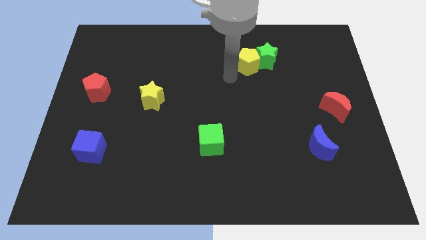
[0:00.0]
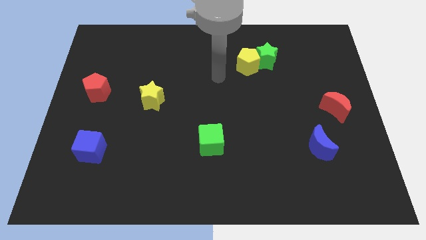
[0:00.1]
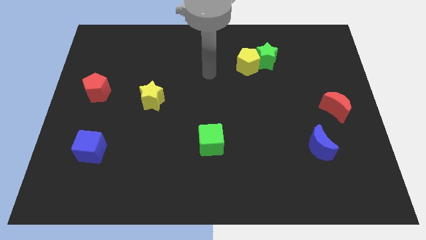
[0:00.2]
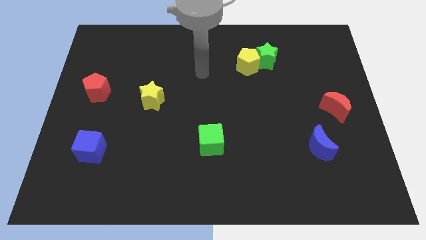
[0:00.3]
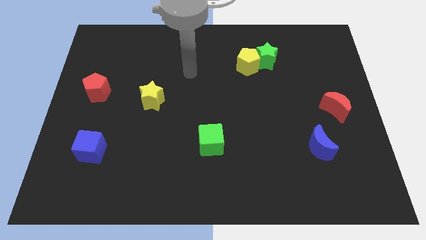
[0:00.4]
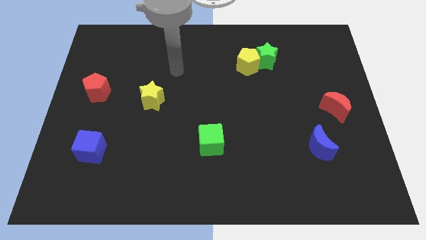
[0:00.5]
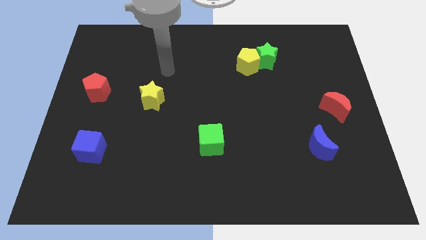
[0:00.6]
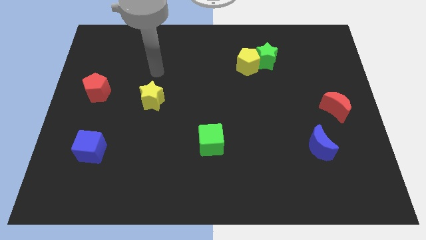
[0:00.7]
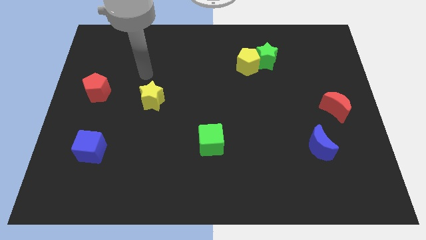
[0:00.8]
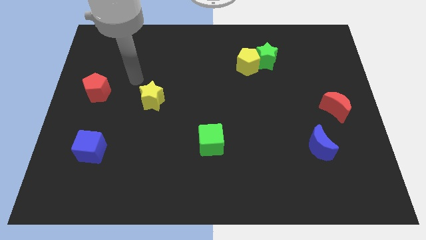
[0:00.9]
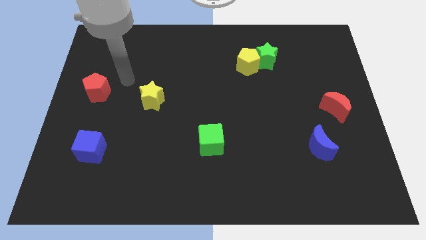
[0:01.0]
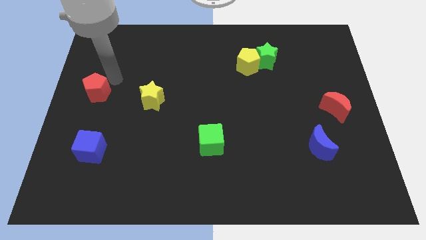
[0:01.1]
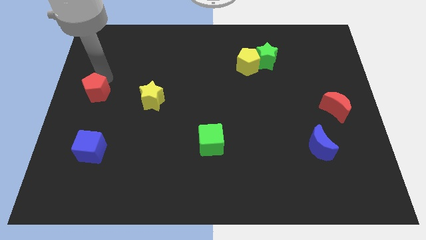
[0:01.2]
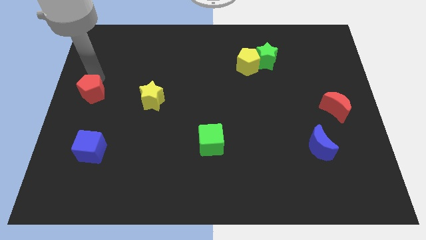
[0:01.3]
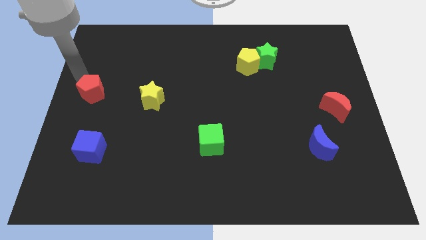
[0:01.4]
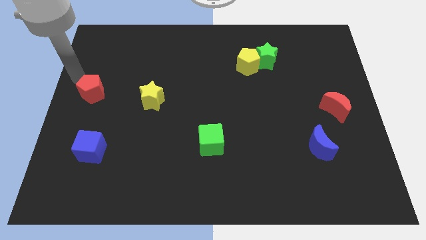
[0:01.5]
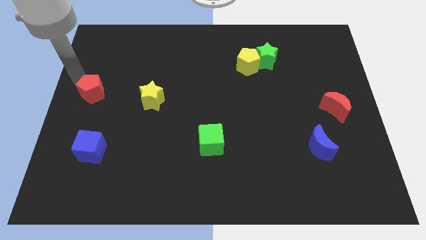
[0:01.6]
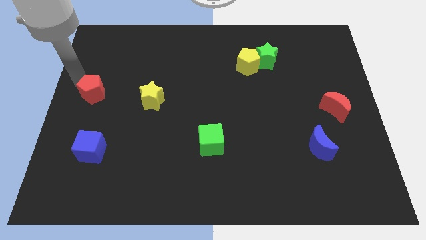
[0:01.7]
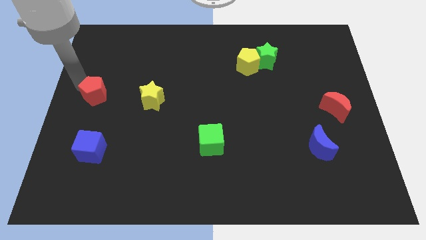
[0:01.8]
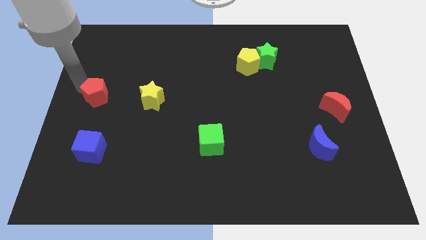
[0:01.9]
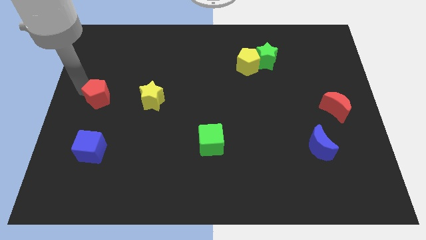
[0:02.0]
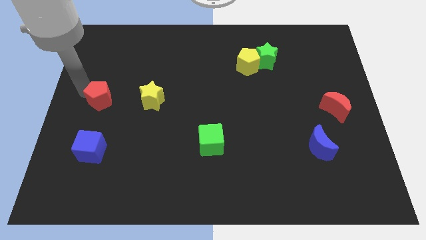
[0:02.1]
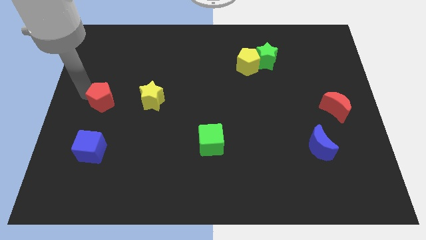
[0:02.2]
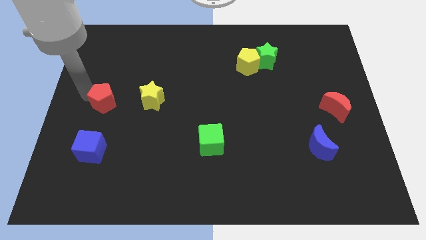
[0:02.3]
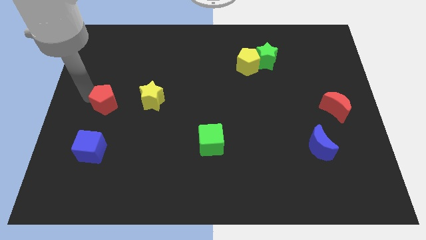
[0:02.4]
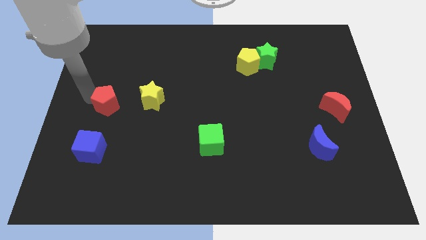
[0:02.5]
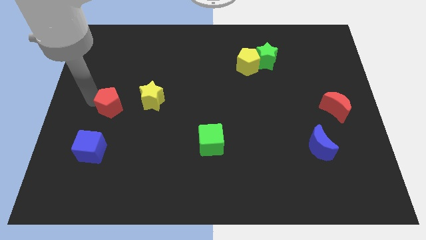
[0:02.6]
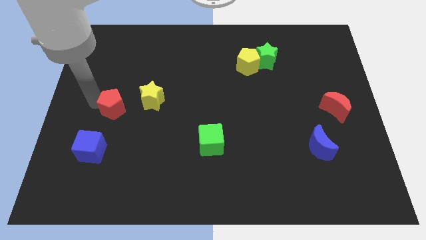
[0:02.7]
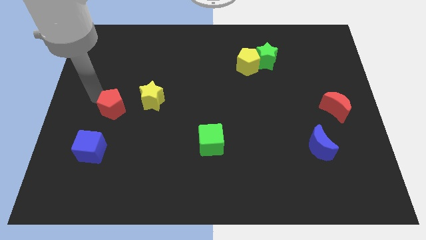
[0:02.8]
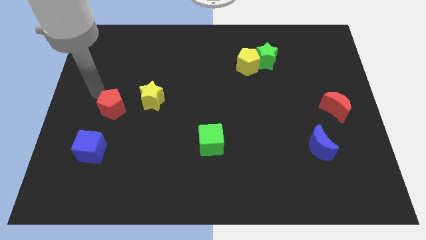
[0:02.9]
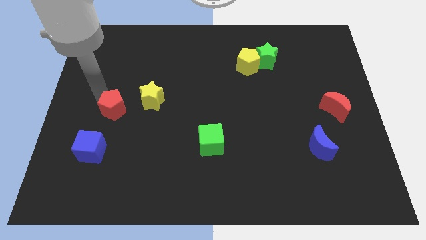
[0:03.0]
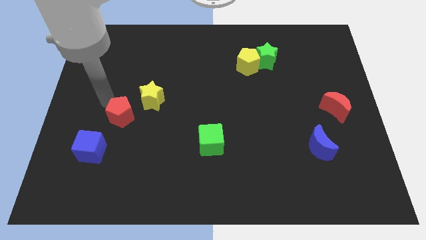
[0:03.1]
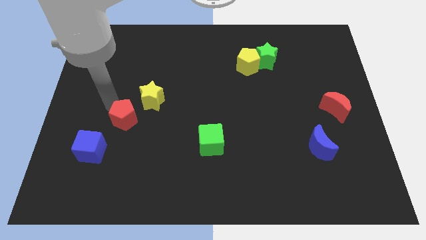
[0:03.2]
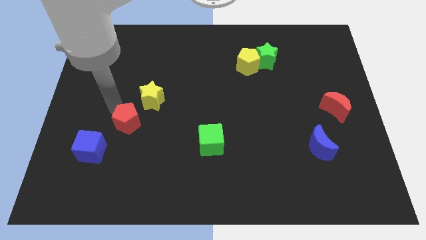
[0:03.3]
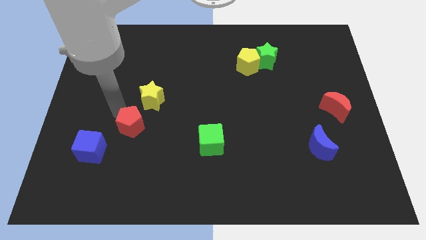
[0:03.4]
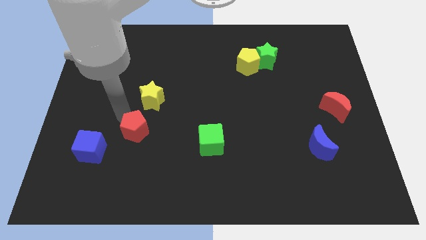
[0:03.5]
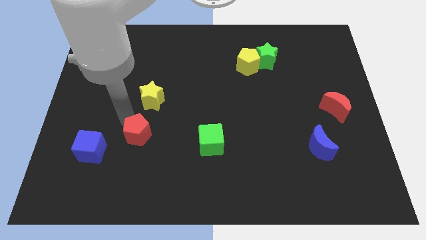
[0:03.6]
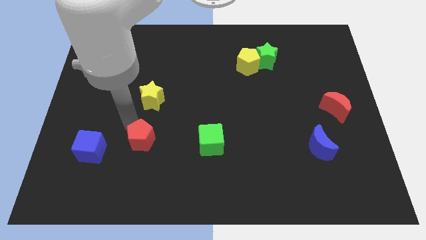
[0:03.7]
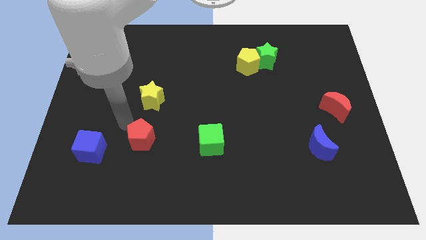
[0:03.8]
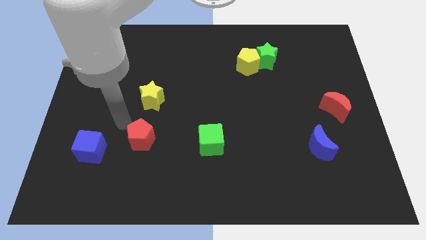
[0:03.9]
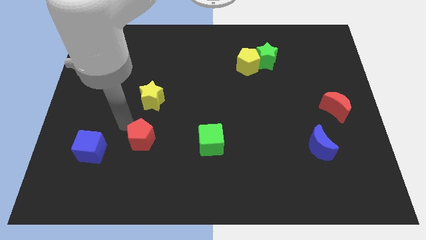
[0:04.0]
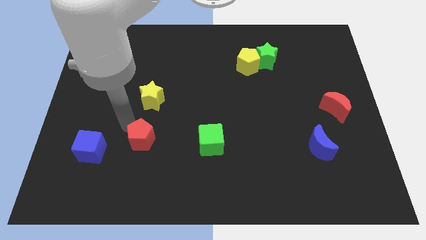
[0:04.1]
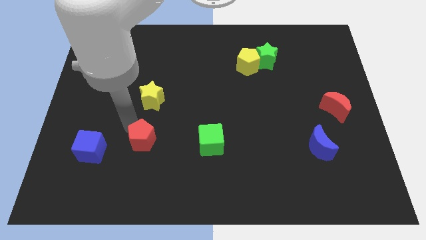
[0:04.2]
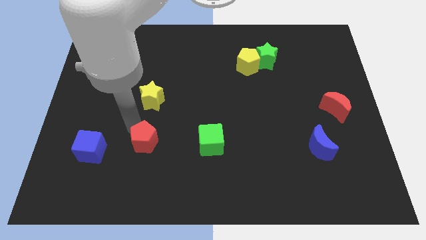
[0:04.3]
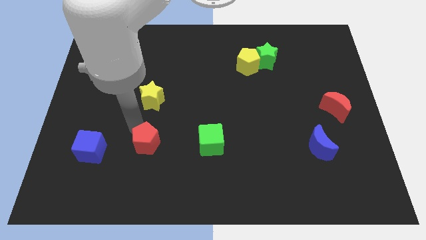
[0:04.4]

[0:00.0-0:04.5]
slide the red pentagon diagonally downwards and to the right

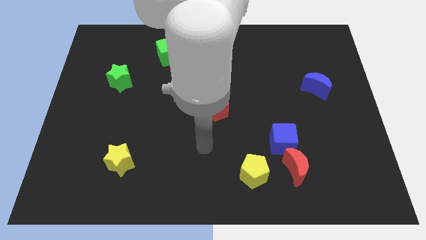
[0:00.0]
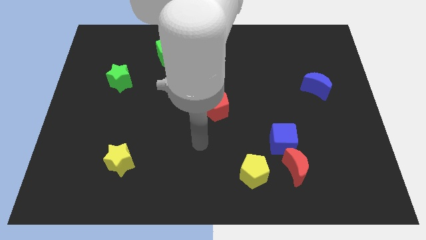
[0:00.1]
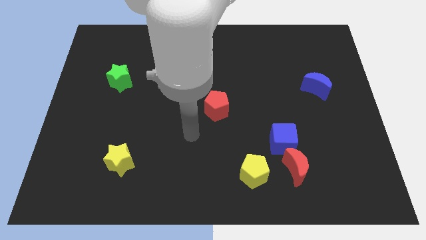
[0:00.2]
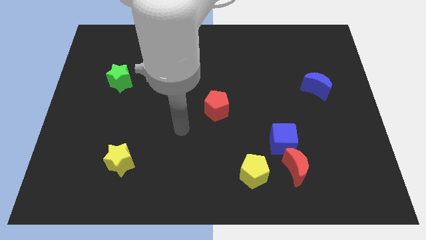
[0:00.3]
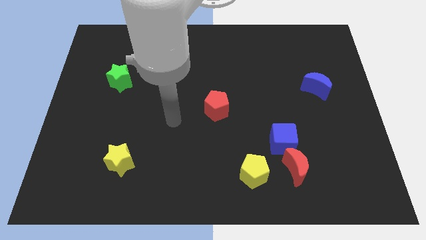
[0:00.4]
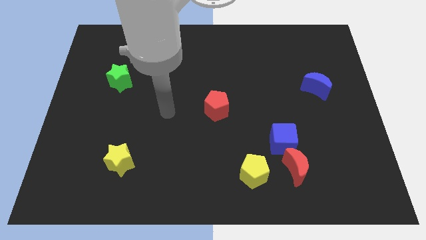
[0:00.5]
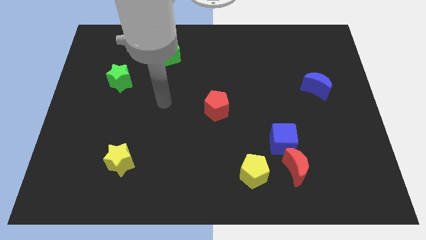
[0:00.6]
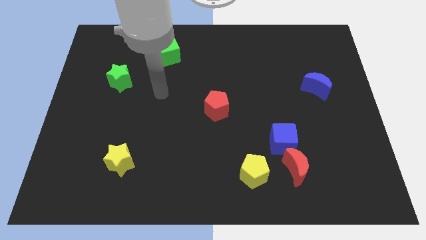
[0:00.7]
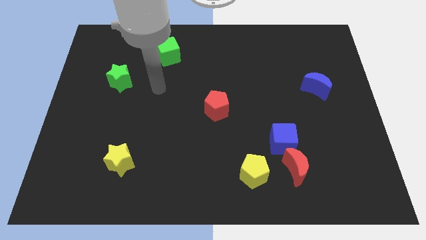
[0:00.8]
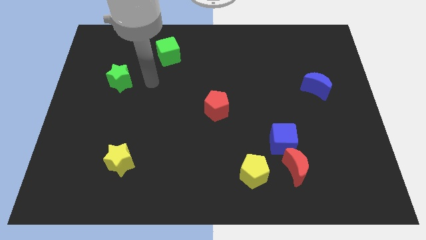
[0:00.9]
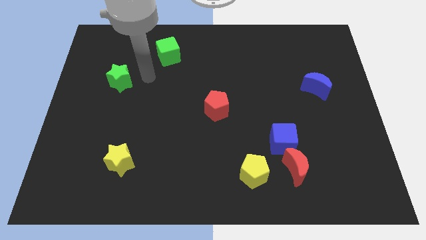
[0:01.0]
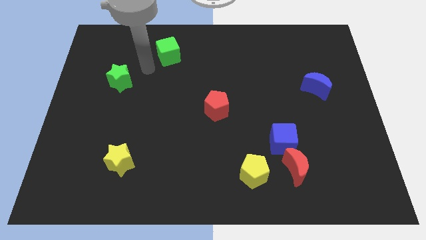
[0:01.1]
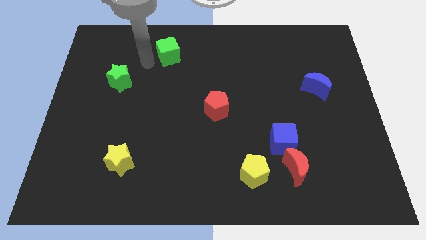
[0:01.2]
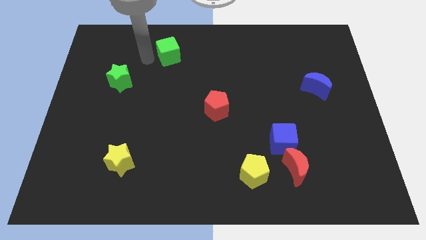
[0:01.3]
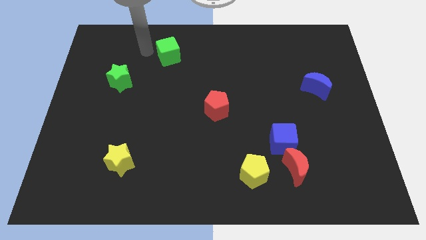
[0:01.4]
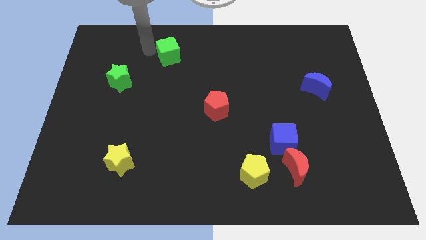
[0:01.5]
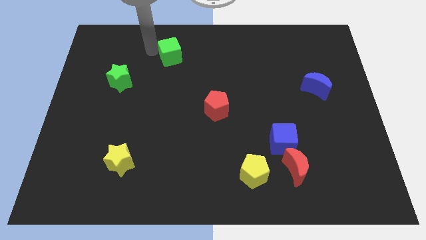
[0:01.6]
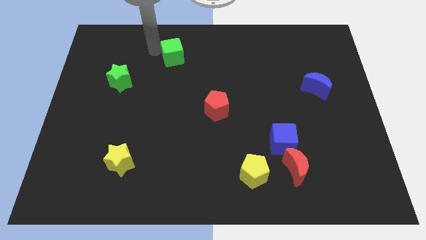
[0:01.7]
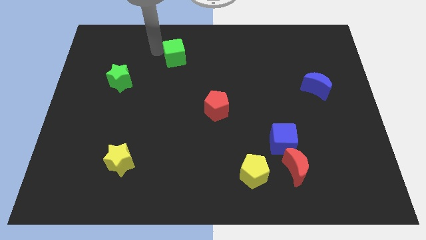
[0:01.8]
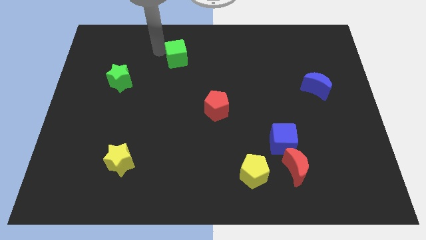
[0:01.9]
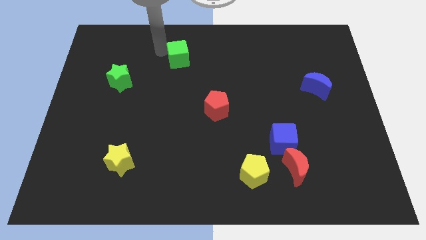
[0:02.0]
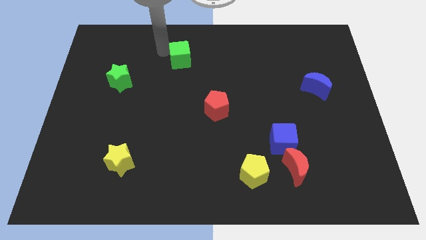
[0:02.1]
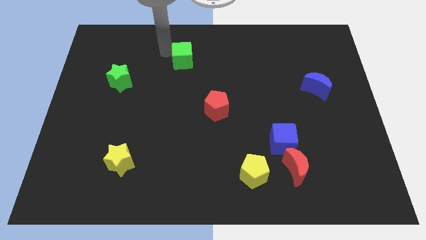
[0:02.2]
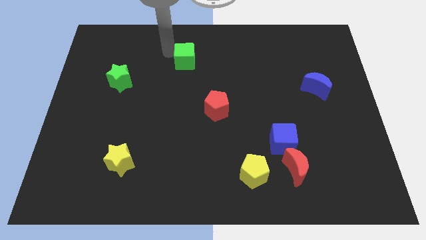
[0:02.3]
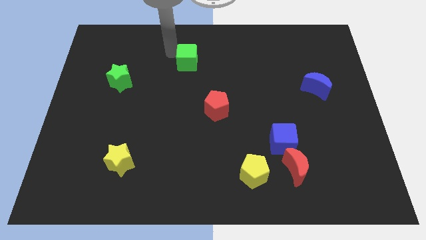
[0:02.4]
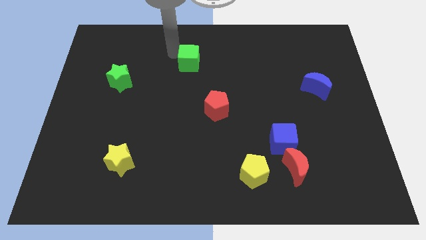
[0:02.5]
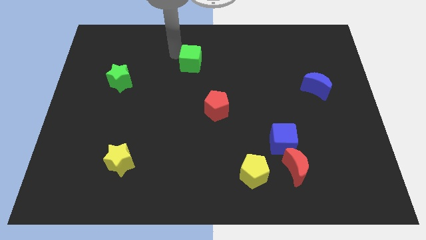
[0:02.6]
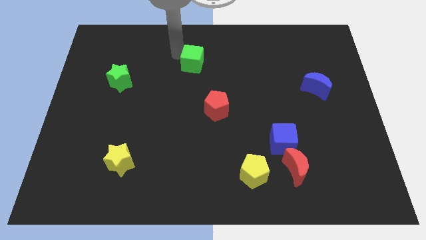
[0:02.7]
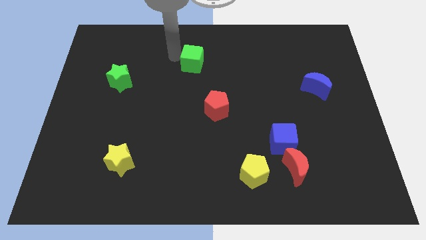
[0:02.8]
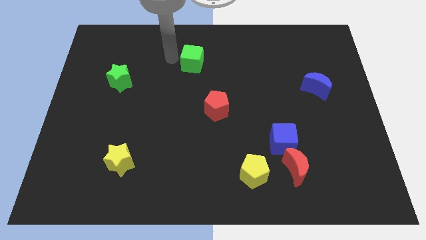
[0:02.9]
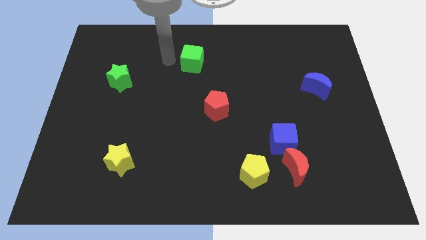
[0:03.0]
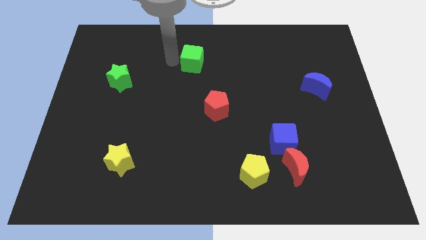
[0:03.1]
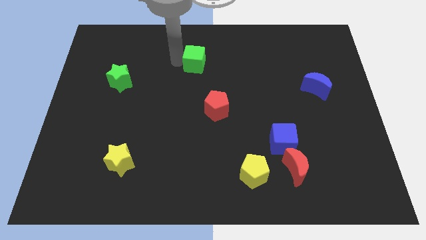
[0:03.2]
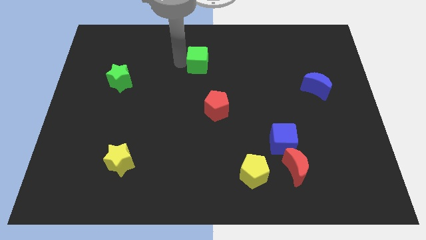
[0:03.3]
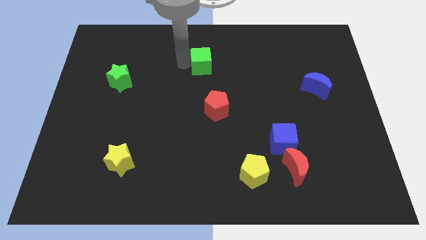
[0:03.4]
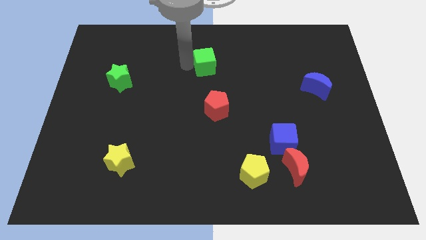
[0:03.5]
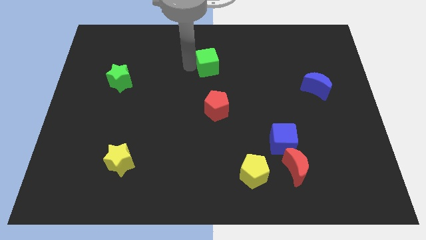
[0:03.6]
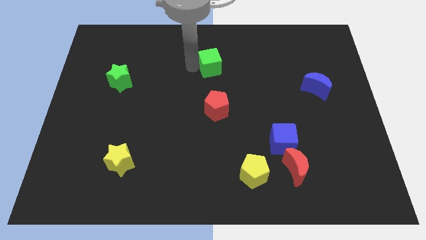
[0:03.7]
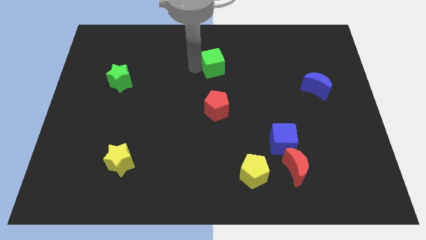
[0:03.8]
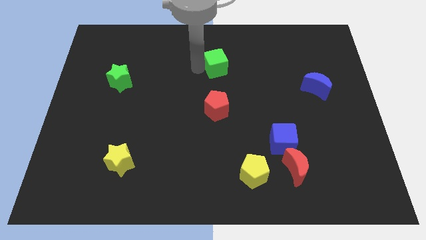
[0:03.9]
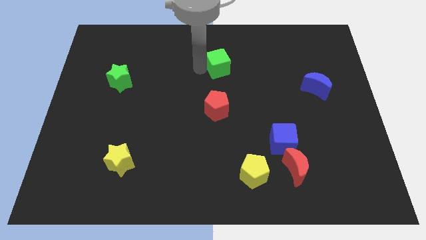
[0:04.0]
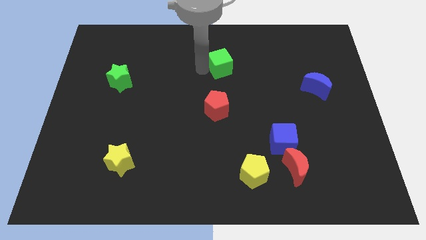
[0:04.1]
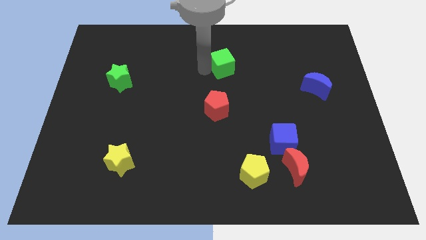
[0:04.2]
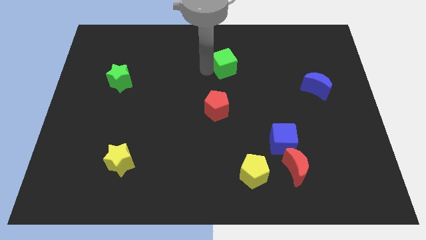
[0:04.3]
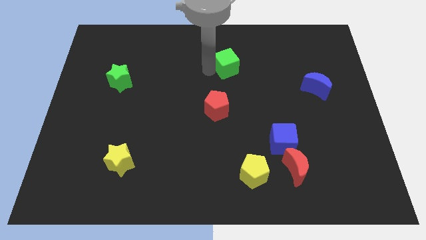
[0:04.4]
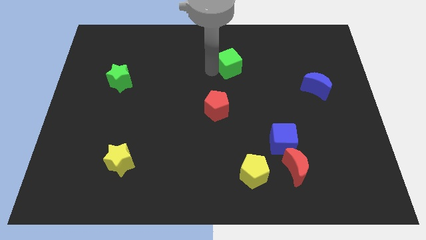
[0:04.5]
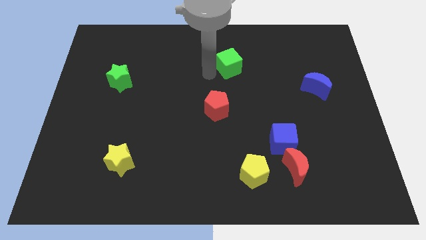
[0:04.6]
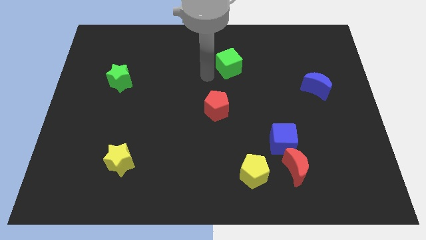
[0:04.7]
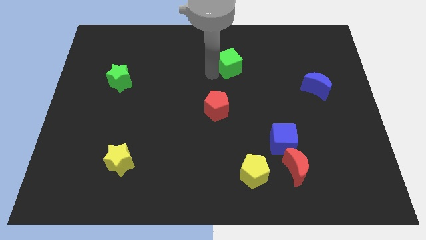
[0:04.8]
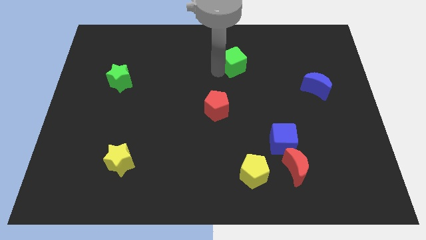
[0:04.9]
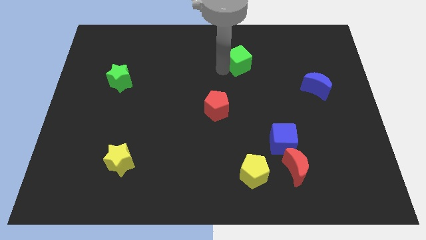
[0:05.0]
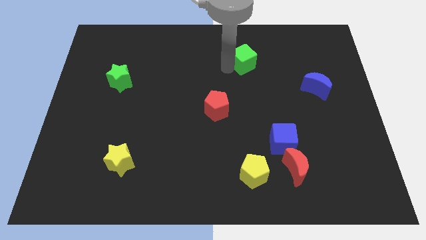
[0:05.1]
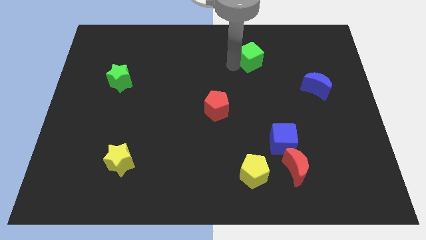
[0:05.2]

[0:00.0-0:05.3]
move the green cube right
